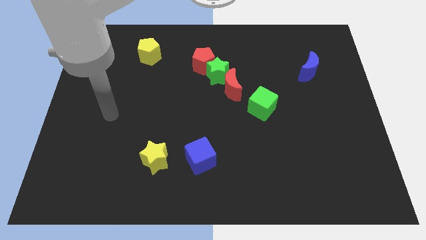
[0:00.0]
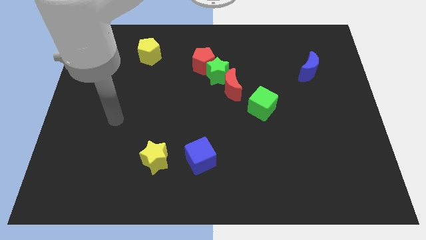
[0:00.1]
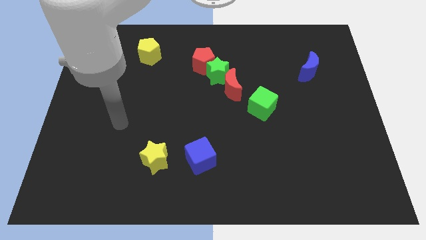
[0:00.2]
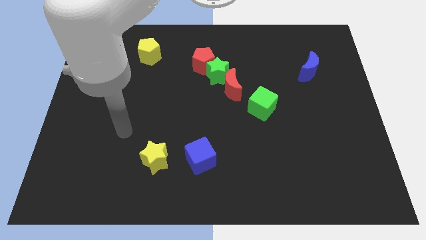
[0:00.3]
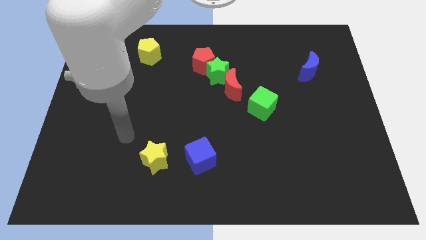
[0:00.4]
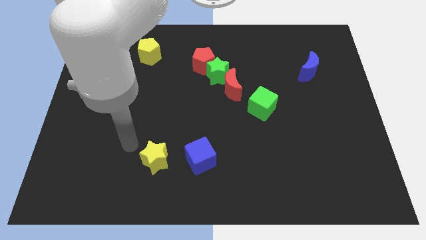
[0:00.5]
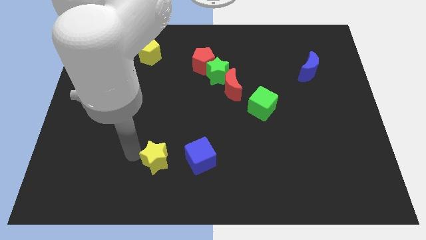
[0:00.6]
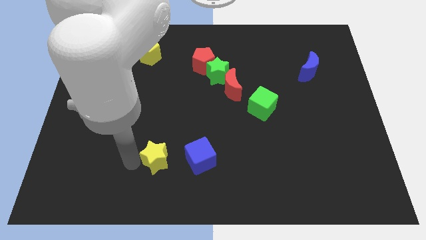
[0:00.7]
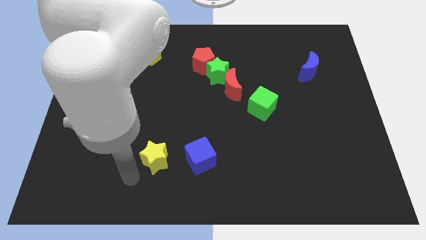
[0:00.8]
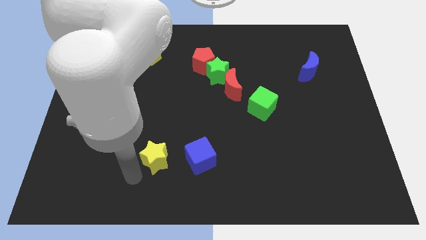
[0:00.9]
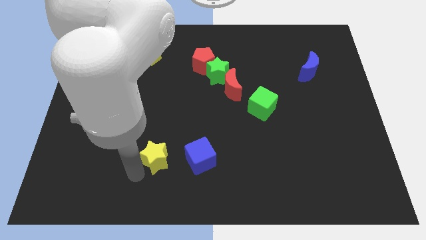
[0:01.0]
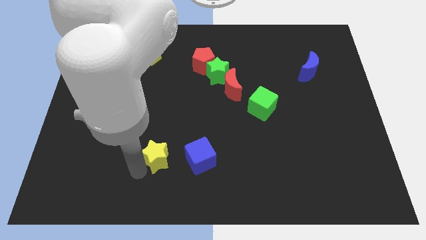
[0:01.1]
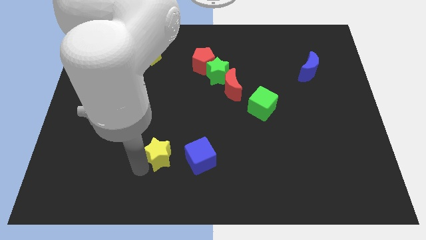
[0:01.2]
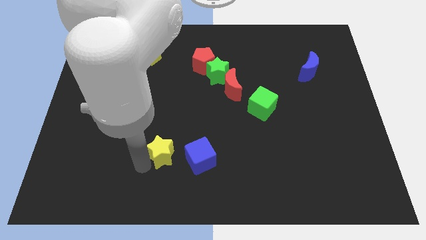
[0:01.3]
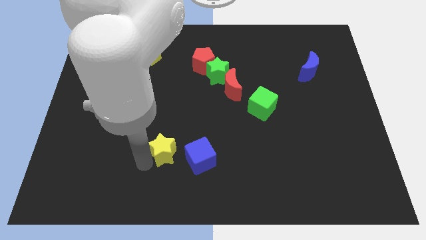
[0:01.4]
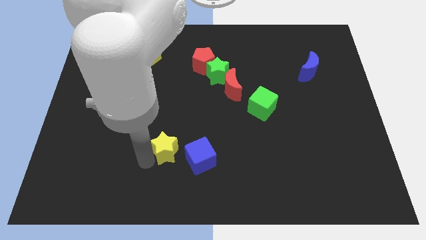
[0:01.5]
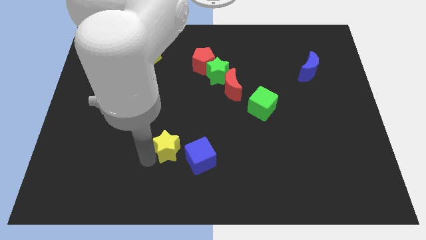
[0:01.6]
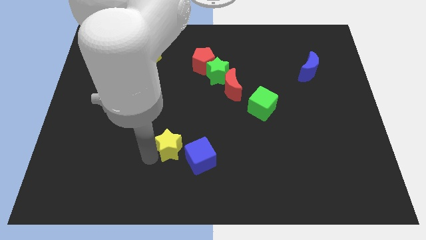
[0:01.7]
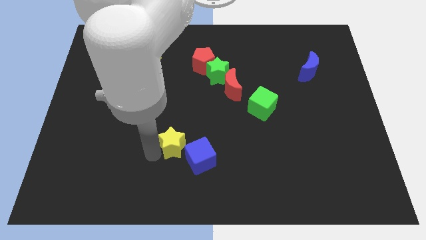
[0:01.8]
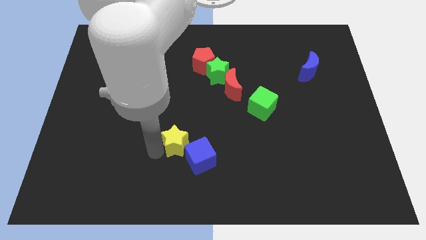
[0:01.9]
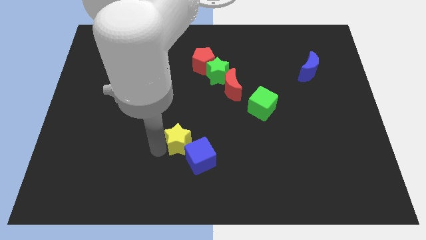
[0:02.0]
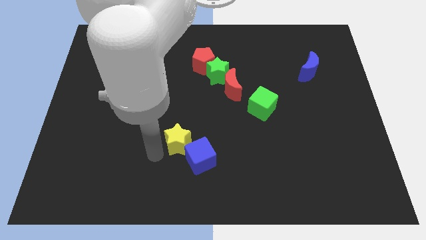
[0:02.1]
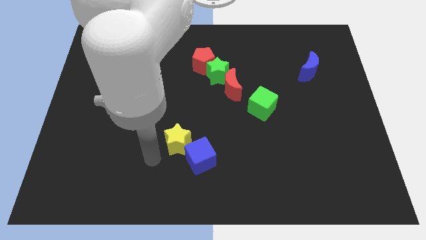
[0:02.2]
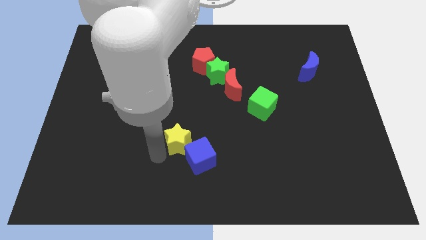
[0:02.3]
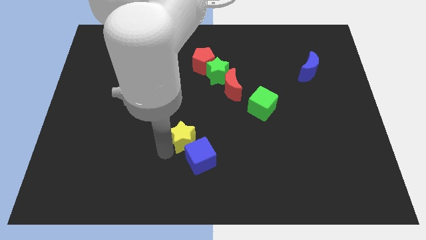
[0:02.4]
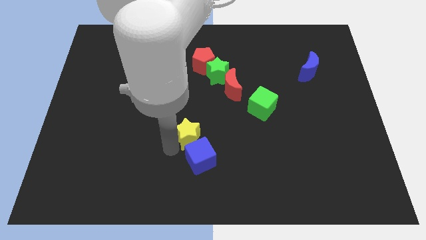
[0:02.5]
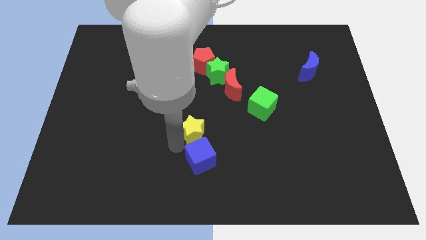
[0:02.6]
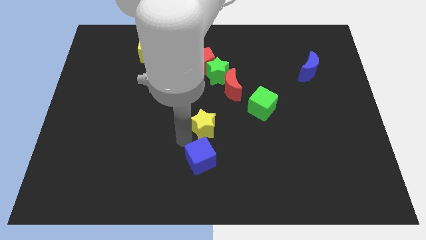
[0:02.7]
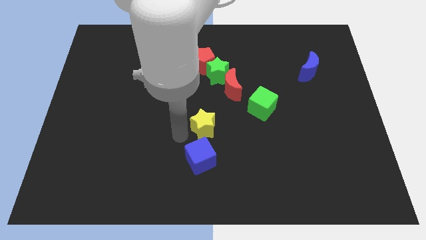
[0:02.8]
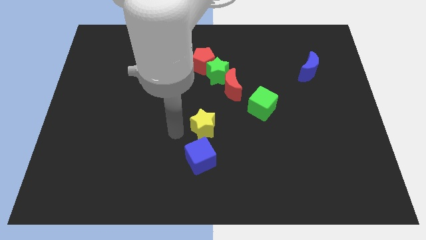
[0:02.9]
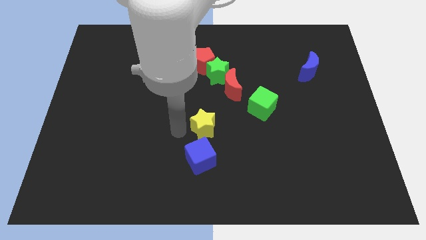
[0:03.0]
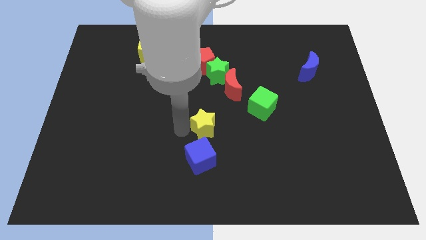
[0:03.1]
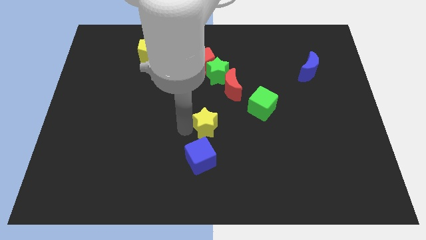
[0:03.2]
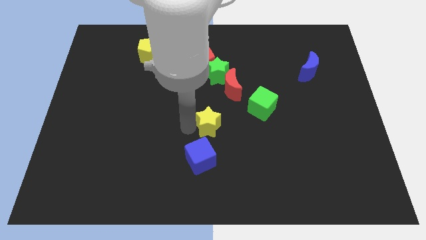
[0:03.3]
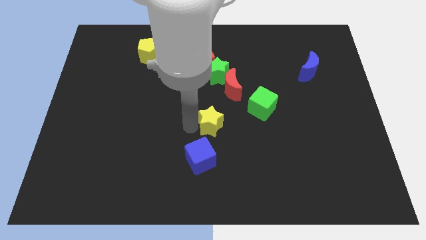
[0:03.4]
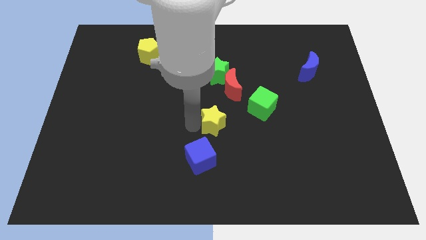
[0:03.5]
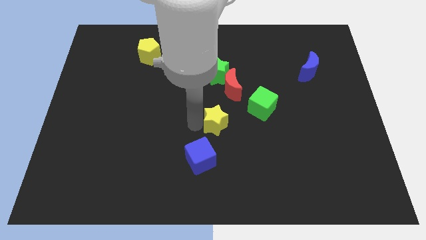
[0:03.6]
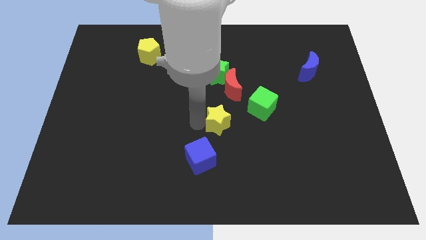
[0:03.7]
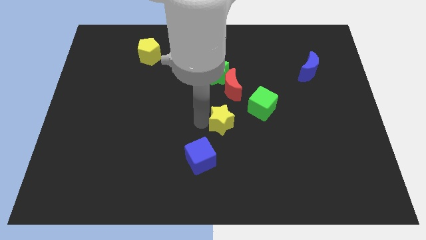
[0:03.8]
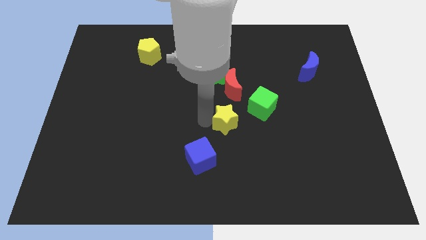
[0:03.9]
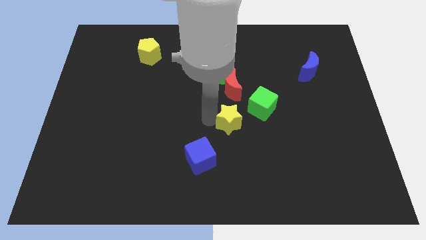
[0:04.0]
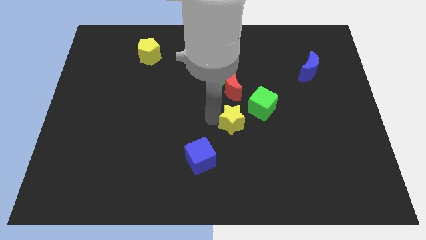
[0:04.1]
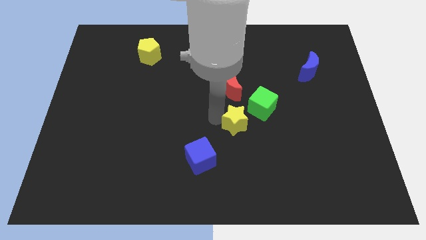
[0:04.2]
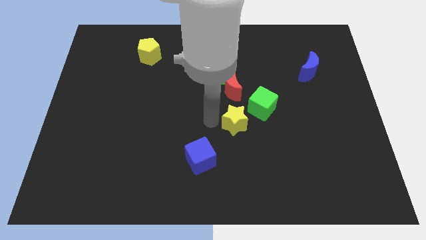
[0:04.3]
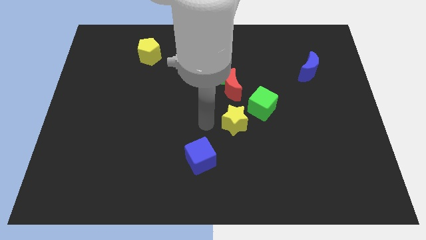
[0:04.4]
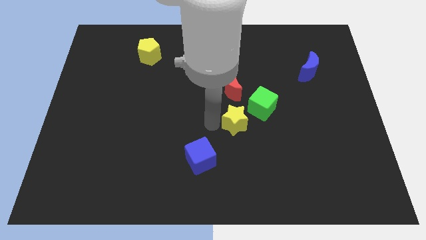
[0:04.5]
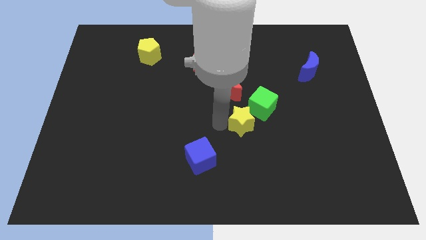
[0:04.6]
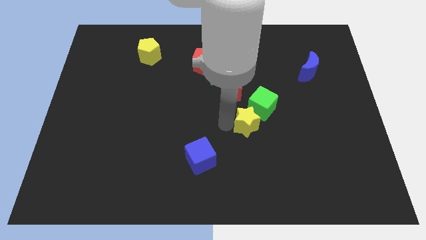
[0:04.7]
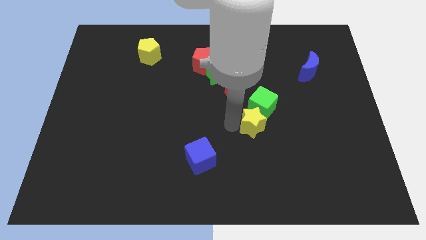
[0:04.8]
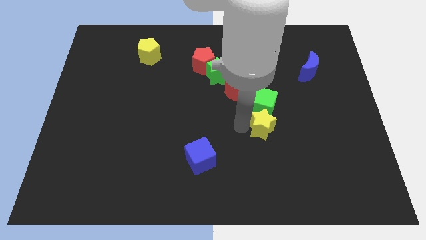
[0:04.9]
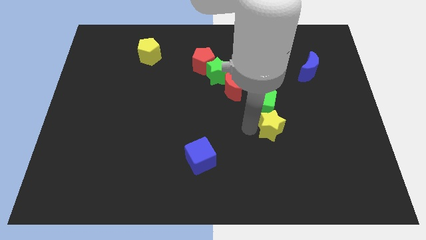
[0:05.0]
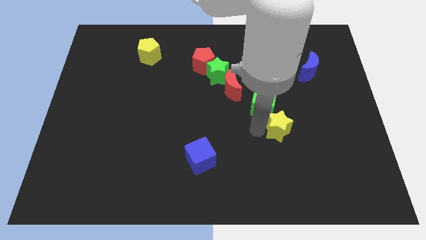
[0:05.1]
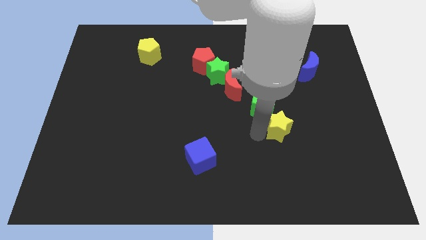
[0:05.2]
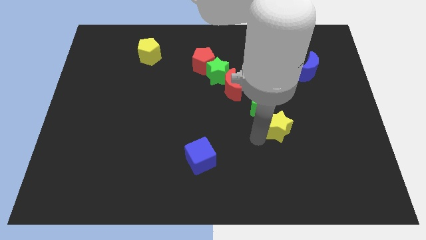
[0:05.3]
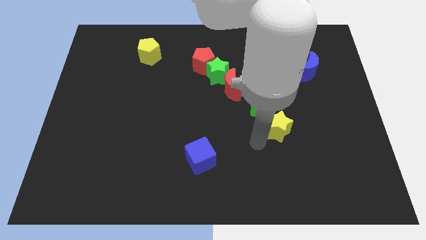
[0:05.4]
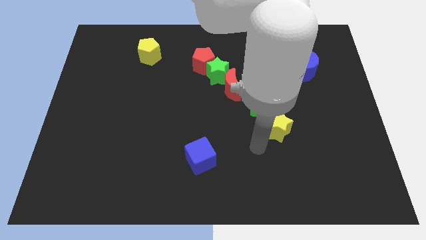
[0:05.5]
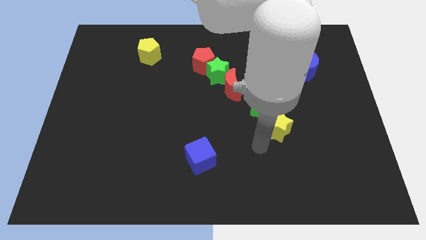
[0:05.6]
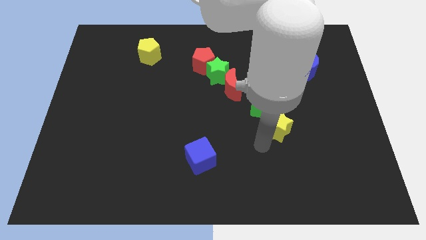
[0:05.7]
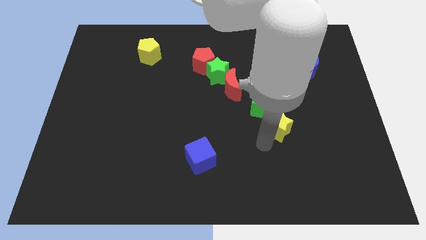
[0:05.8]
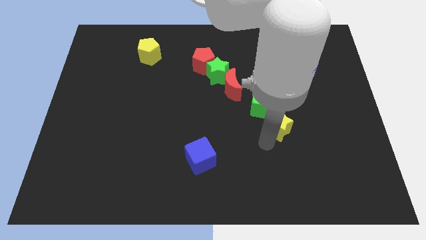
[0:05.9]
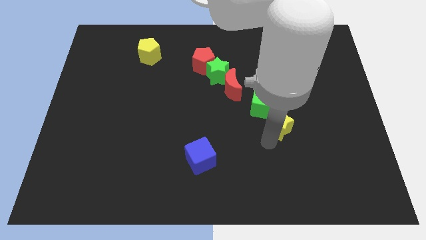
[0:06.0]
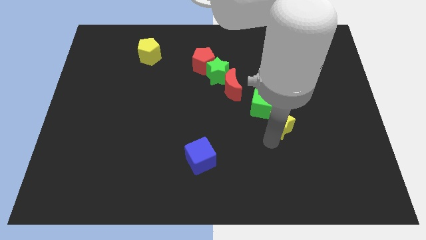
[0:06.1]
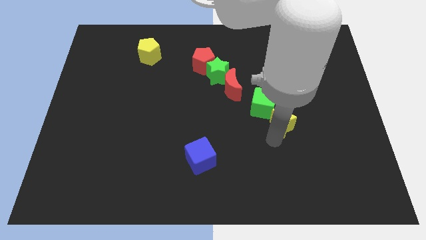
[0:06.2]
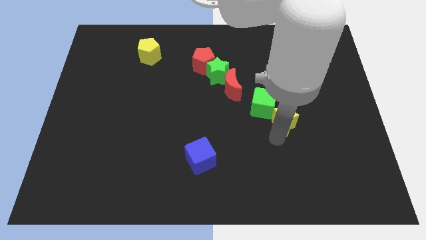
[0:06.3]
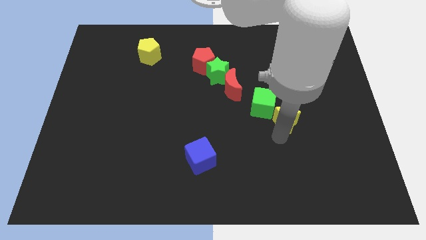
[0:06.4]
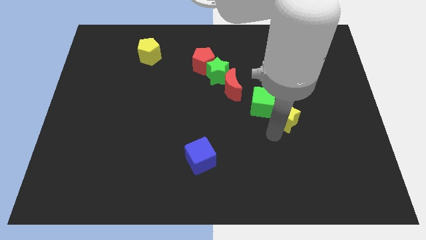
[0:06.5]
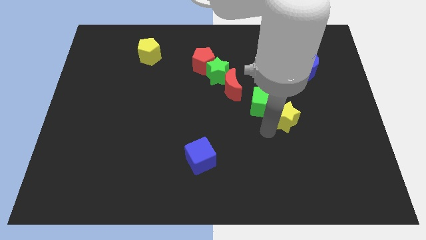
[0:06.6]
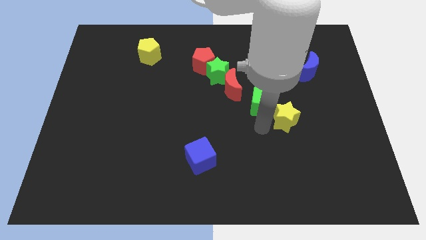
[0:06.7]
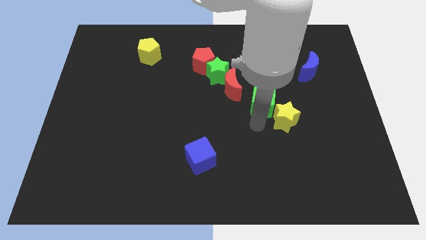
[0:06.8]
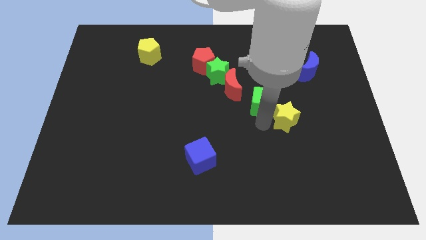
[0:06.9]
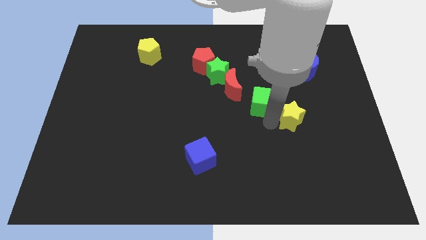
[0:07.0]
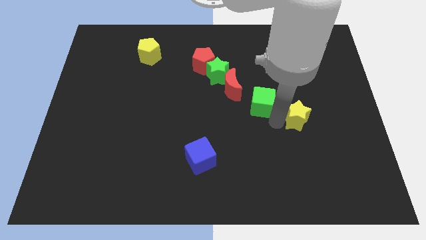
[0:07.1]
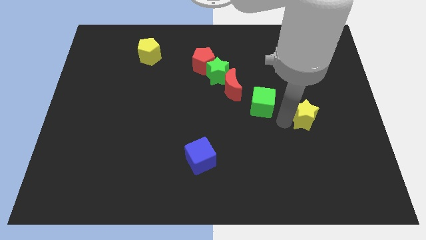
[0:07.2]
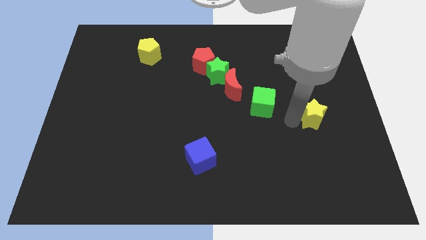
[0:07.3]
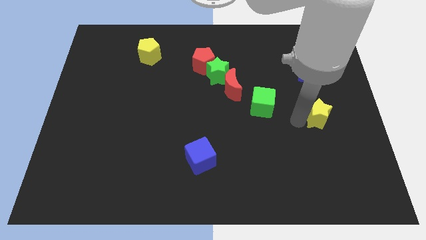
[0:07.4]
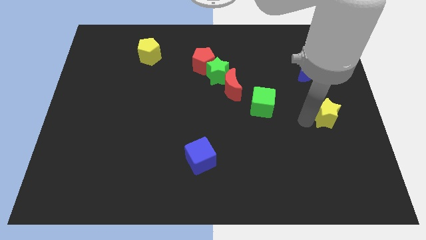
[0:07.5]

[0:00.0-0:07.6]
move the yellow star to the right side
